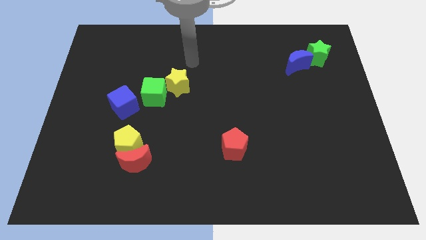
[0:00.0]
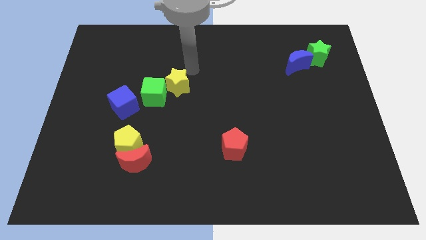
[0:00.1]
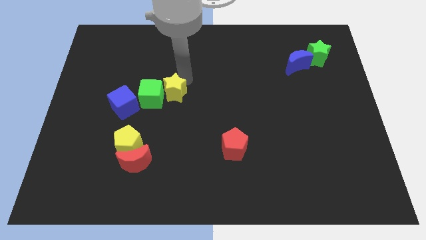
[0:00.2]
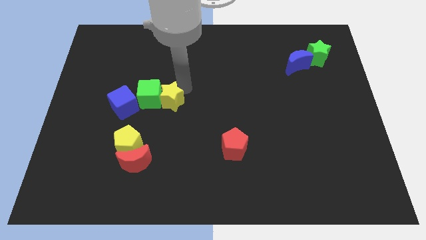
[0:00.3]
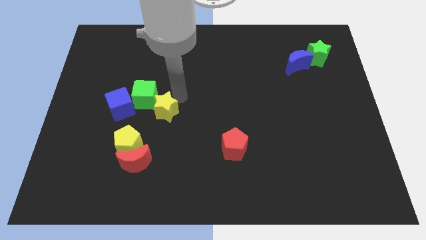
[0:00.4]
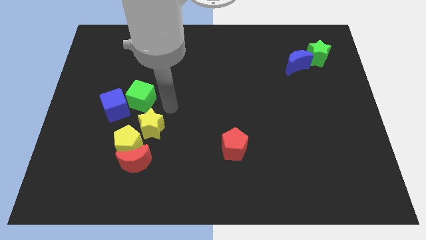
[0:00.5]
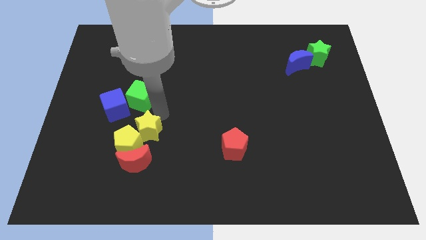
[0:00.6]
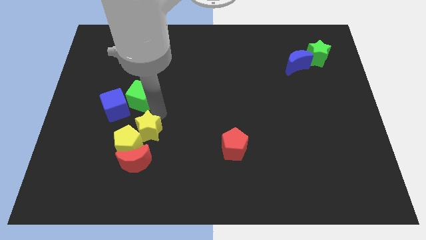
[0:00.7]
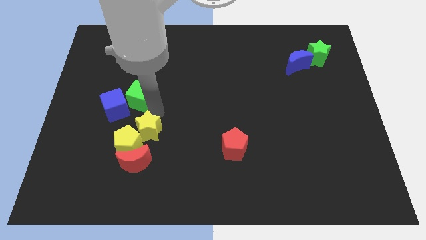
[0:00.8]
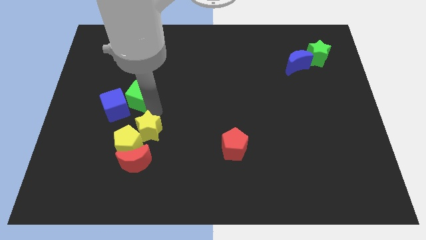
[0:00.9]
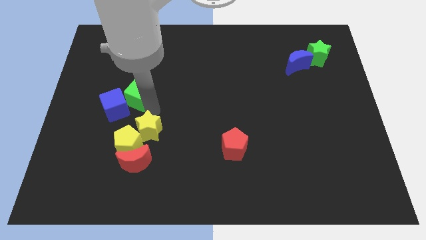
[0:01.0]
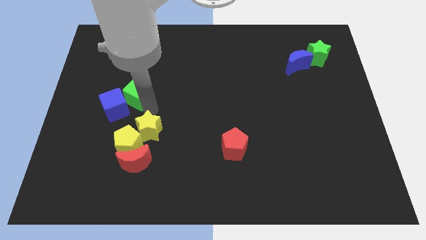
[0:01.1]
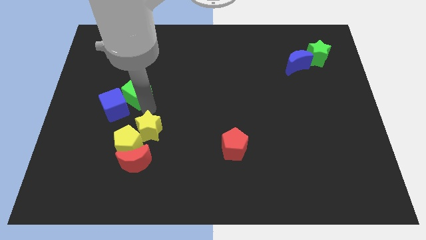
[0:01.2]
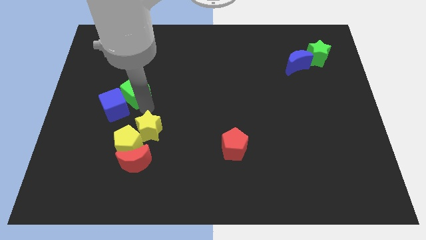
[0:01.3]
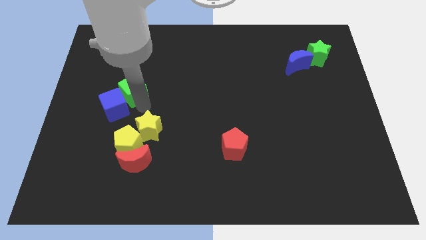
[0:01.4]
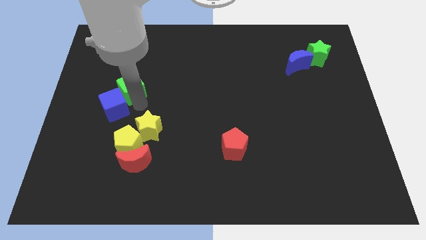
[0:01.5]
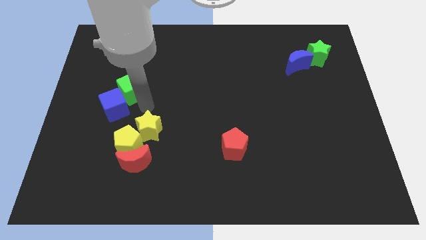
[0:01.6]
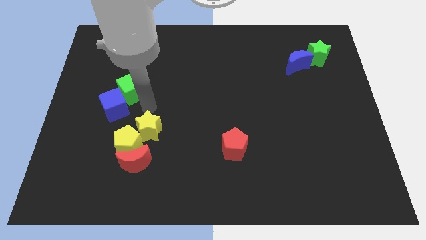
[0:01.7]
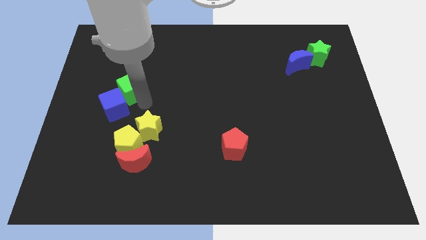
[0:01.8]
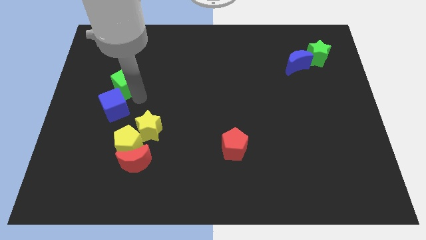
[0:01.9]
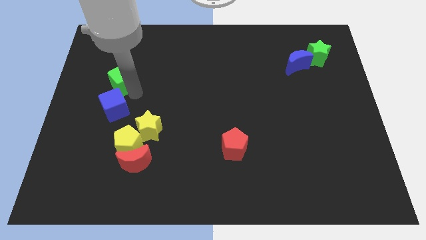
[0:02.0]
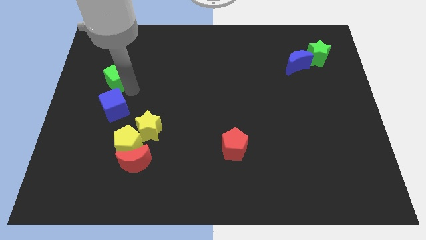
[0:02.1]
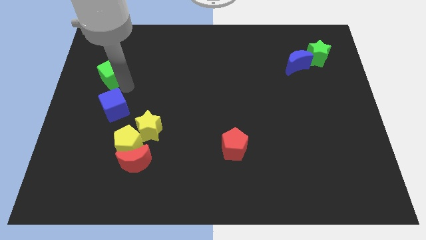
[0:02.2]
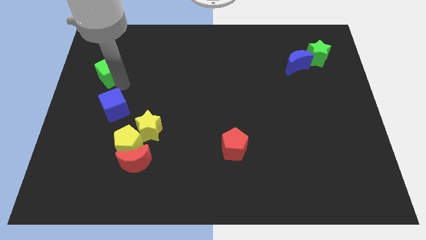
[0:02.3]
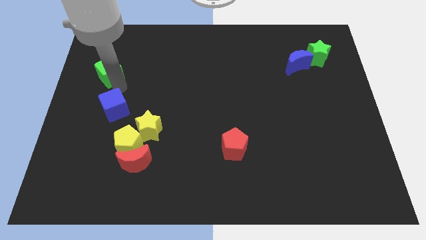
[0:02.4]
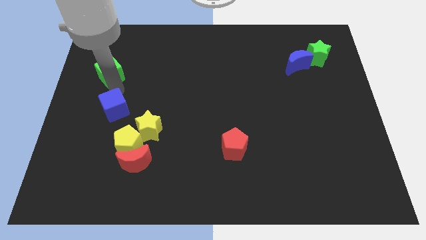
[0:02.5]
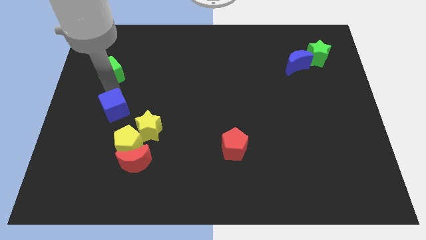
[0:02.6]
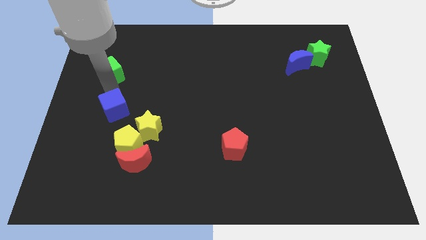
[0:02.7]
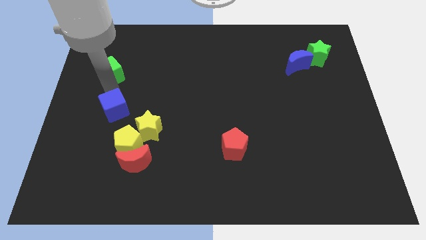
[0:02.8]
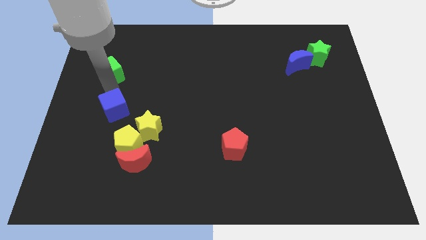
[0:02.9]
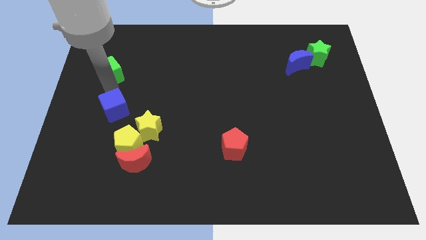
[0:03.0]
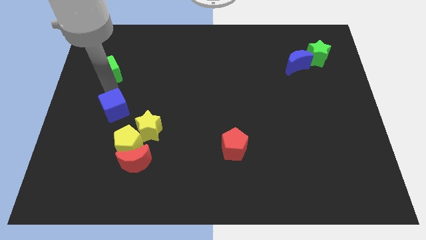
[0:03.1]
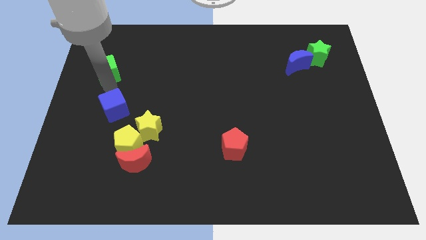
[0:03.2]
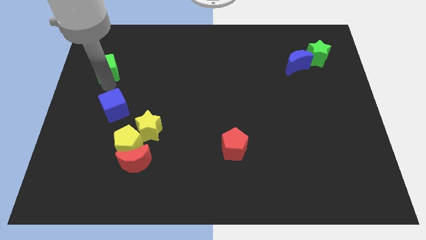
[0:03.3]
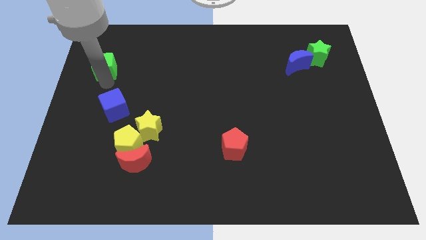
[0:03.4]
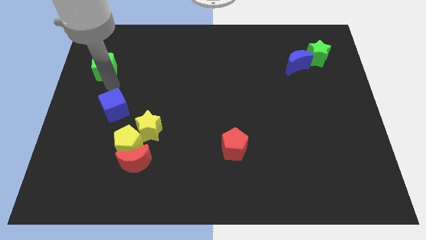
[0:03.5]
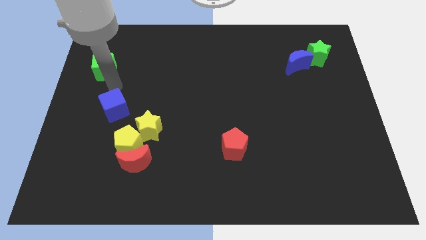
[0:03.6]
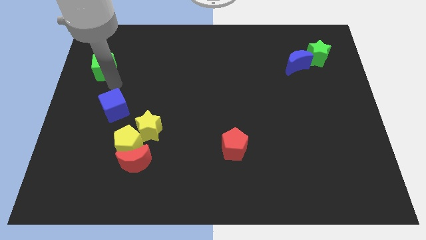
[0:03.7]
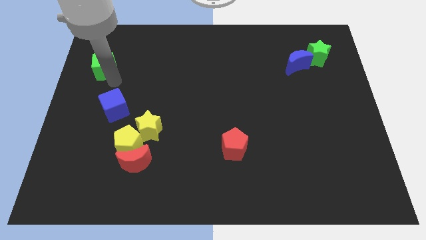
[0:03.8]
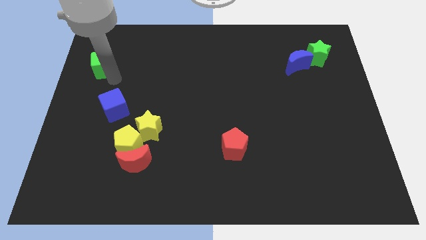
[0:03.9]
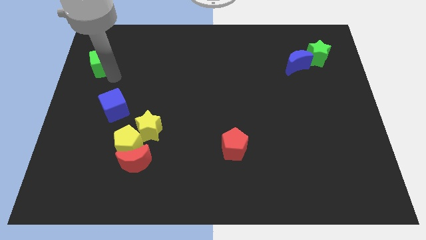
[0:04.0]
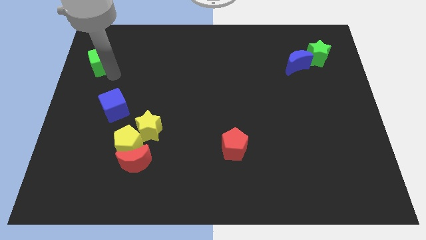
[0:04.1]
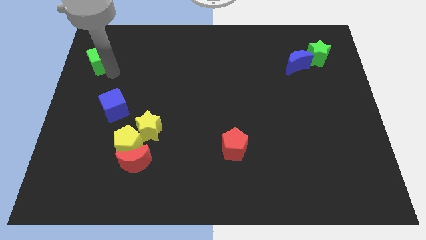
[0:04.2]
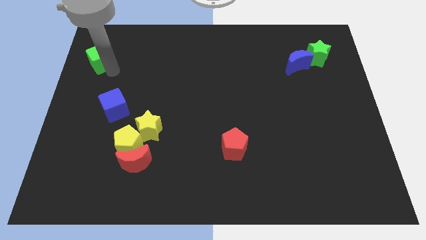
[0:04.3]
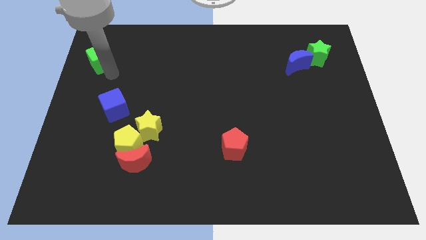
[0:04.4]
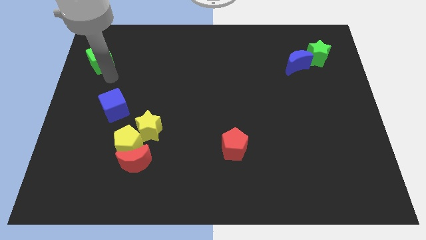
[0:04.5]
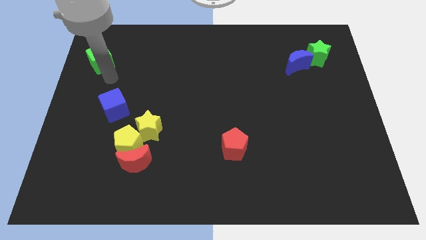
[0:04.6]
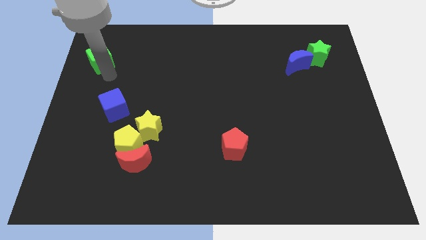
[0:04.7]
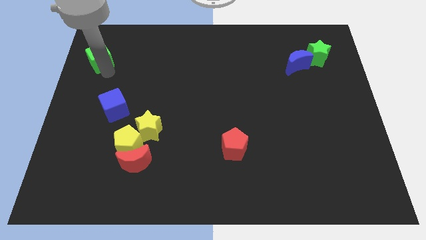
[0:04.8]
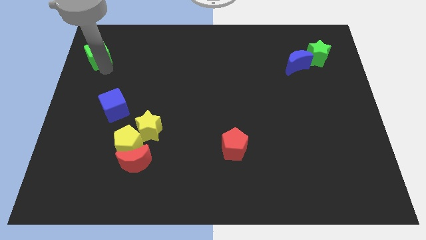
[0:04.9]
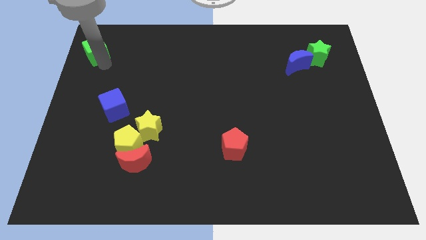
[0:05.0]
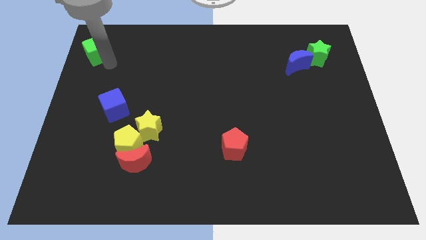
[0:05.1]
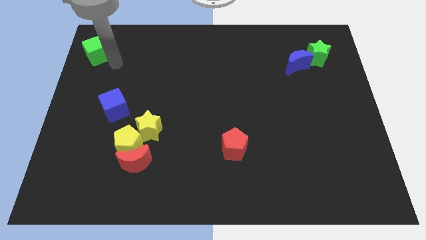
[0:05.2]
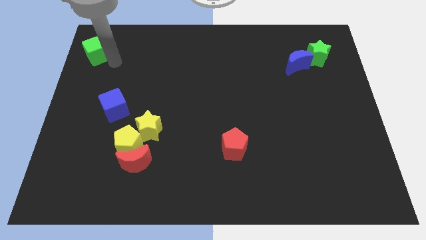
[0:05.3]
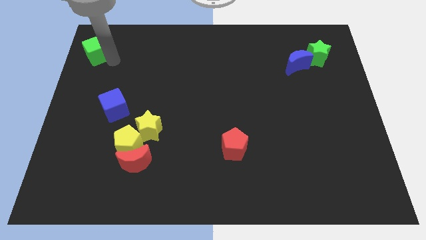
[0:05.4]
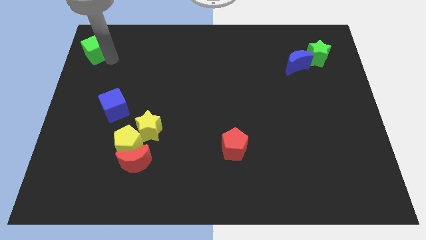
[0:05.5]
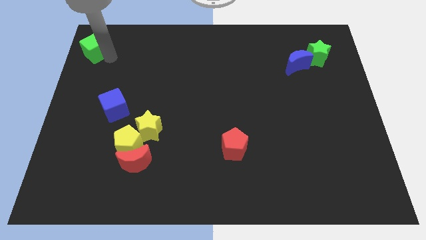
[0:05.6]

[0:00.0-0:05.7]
put the green cube to the upper left corner

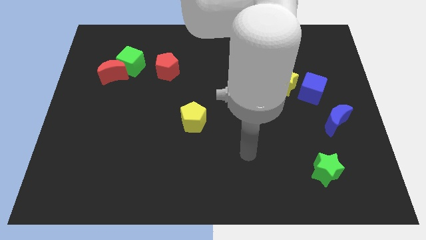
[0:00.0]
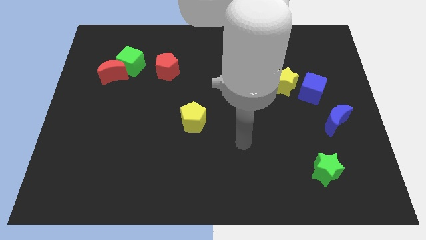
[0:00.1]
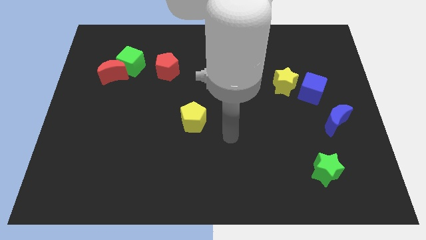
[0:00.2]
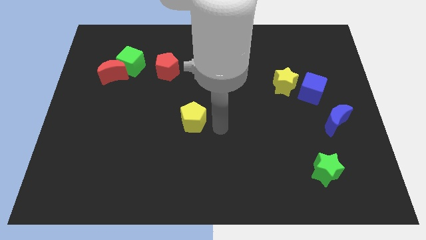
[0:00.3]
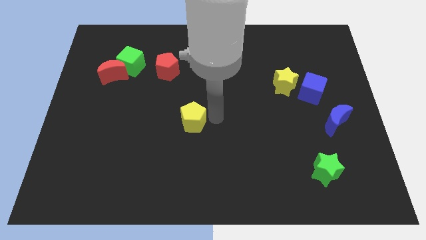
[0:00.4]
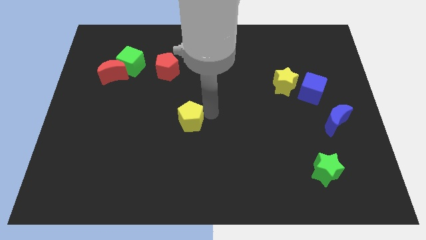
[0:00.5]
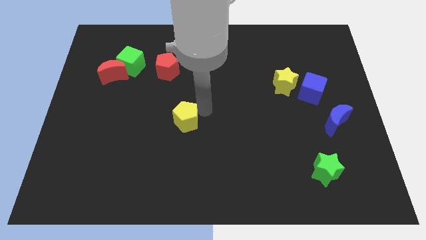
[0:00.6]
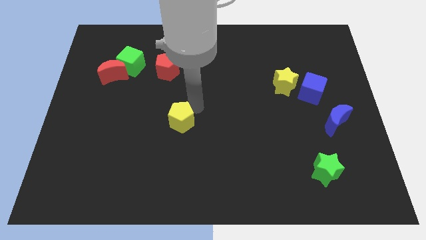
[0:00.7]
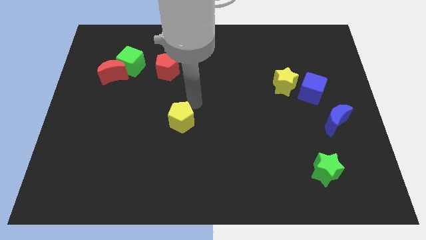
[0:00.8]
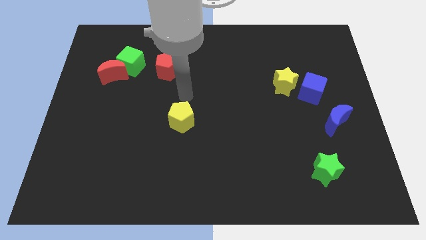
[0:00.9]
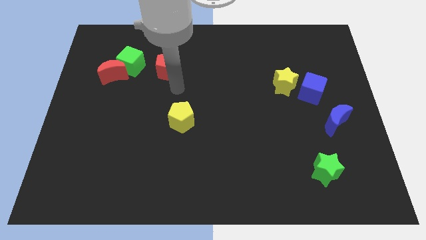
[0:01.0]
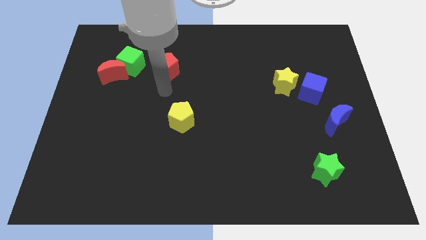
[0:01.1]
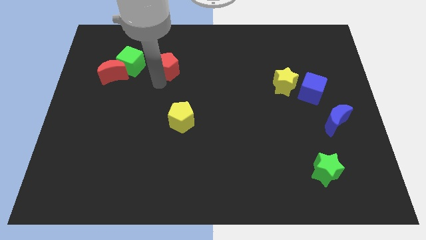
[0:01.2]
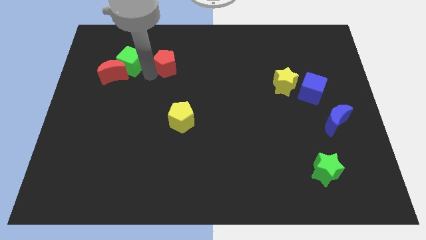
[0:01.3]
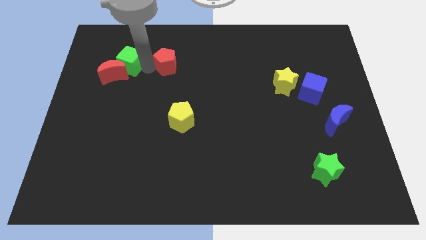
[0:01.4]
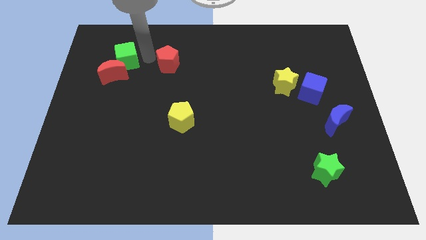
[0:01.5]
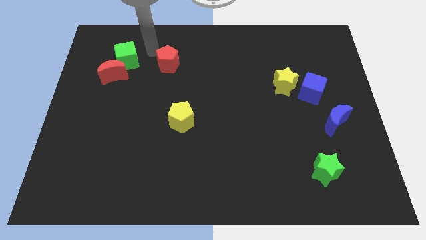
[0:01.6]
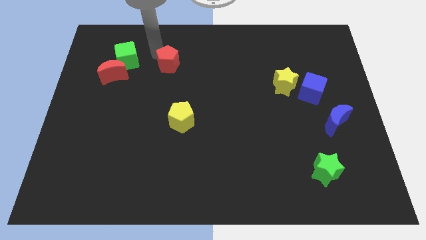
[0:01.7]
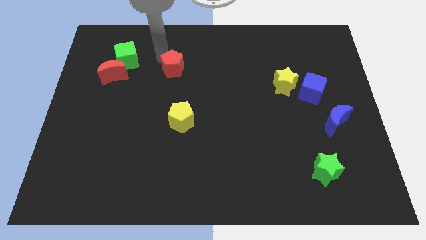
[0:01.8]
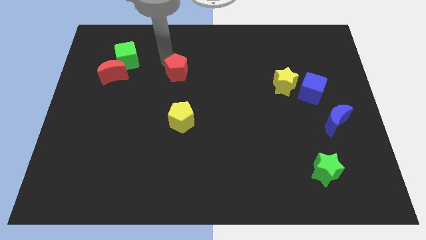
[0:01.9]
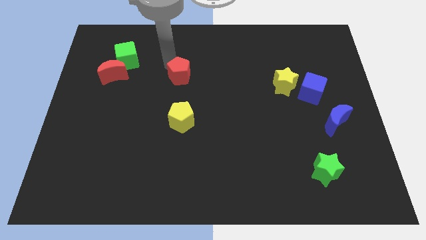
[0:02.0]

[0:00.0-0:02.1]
move the red pentagon to the center
